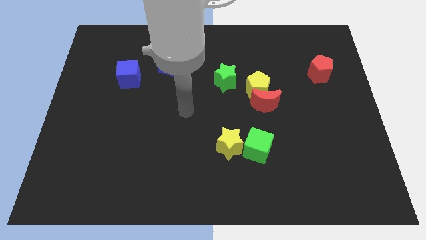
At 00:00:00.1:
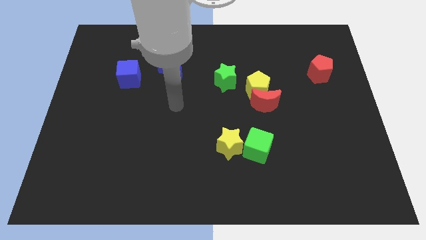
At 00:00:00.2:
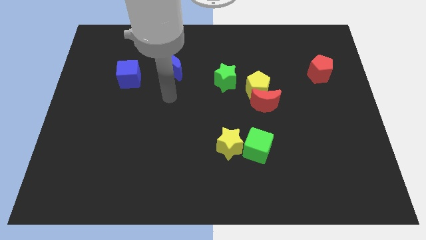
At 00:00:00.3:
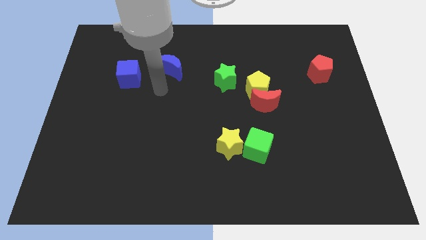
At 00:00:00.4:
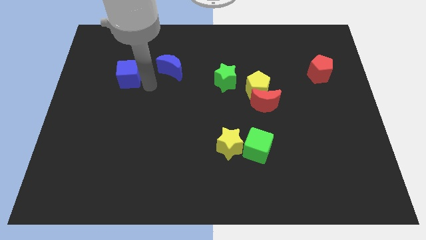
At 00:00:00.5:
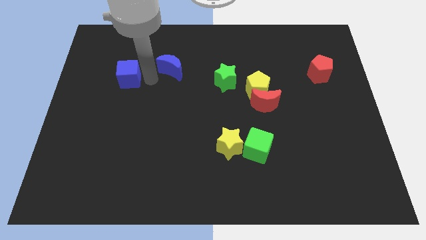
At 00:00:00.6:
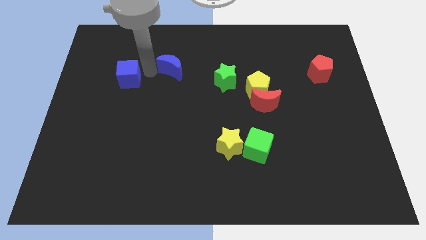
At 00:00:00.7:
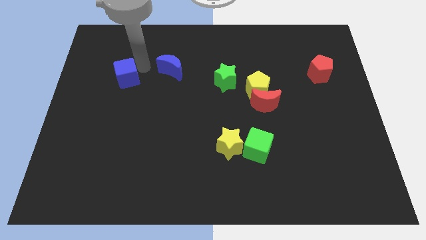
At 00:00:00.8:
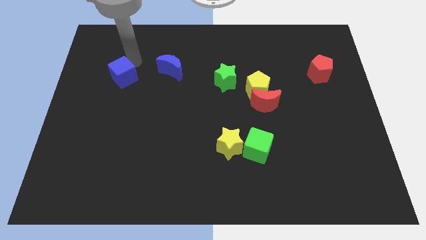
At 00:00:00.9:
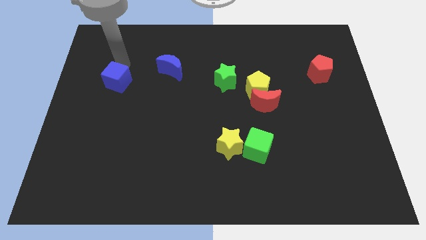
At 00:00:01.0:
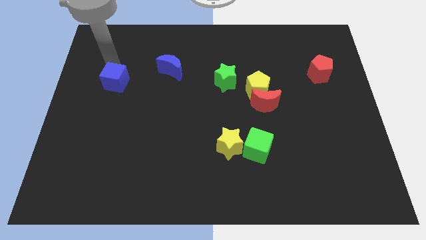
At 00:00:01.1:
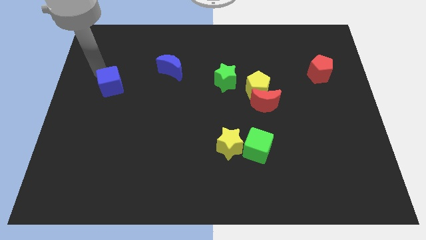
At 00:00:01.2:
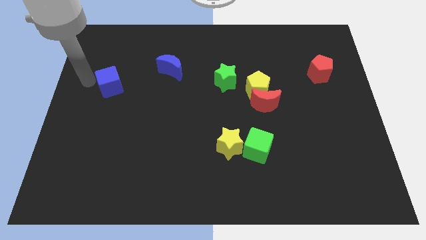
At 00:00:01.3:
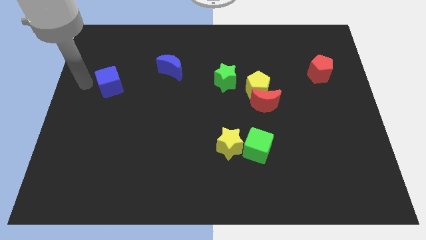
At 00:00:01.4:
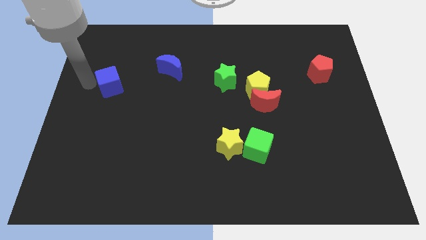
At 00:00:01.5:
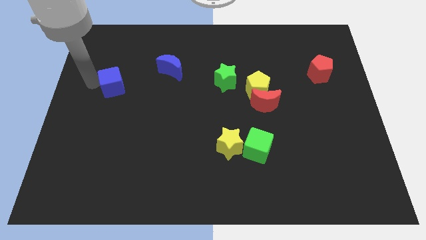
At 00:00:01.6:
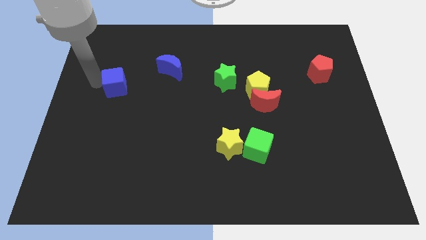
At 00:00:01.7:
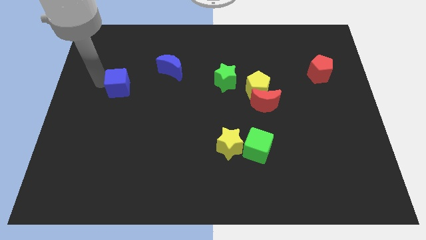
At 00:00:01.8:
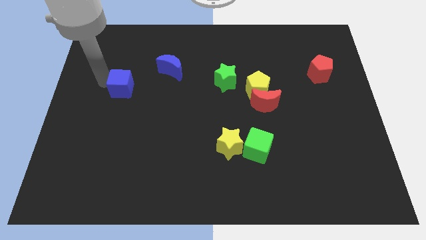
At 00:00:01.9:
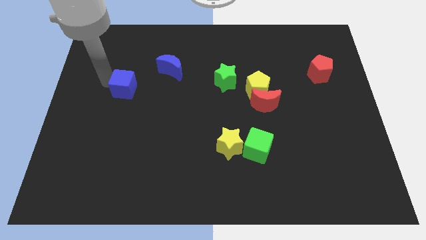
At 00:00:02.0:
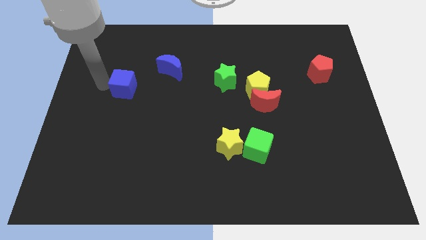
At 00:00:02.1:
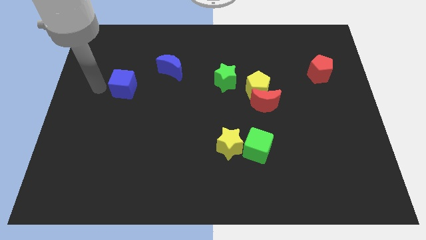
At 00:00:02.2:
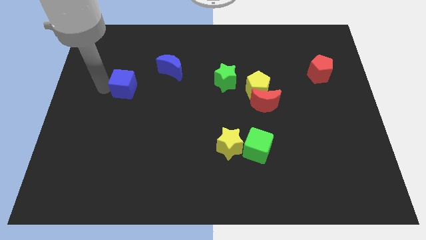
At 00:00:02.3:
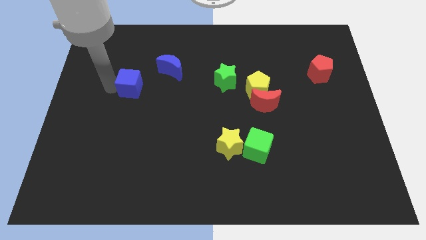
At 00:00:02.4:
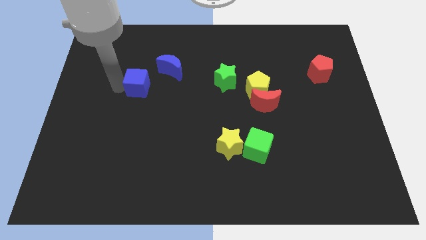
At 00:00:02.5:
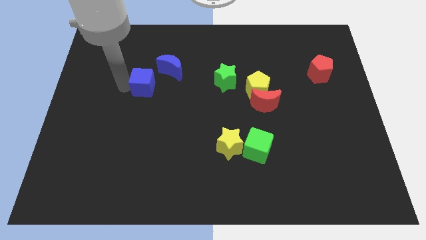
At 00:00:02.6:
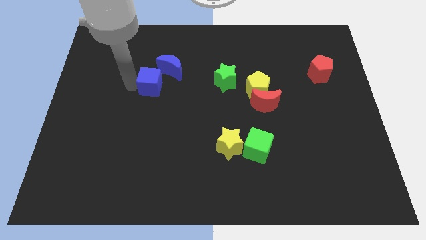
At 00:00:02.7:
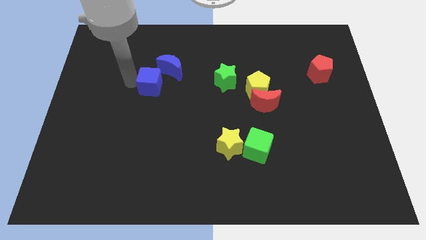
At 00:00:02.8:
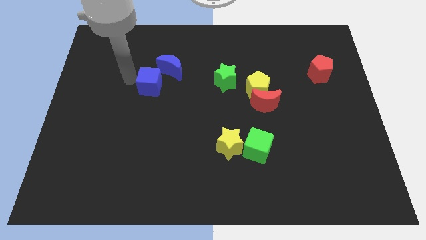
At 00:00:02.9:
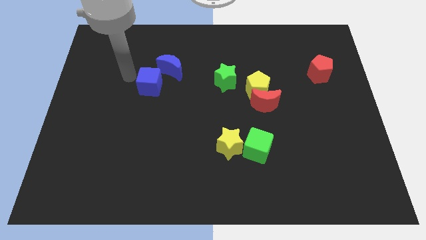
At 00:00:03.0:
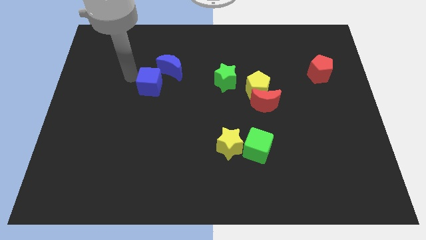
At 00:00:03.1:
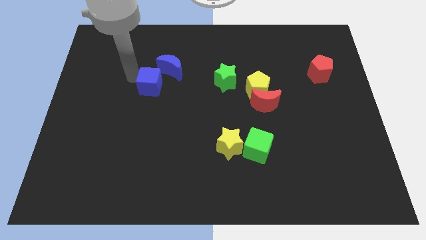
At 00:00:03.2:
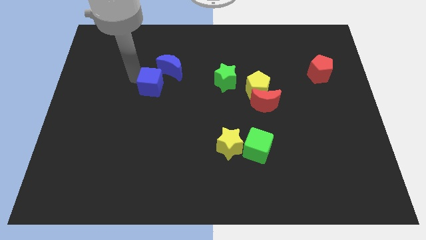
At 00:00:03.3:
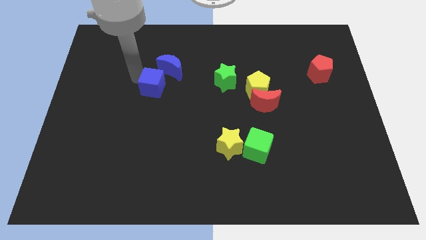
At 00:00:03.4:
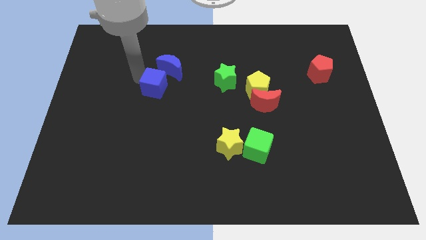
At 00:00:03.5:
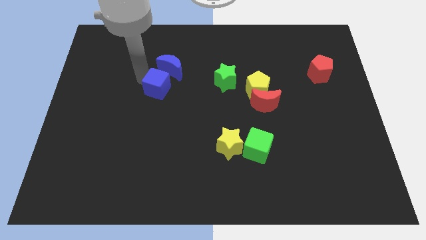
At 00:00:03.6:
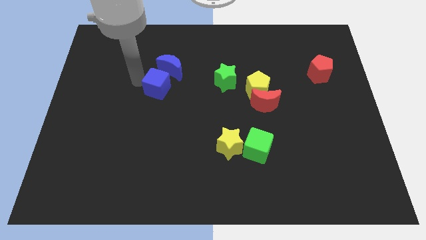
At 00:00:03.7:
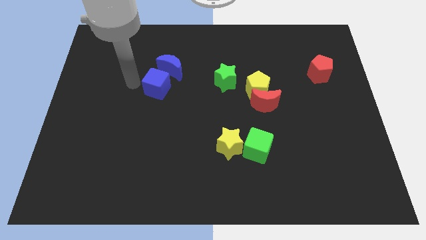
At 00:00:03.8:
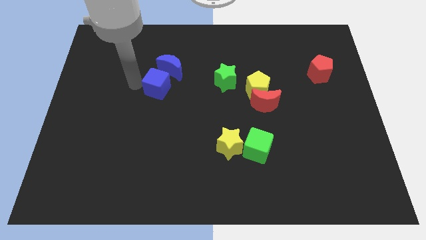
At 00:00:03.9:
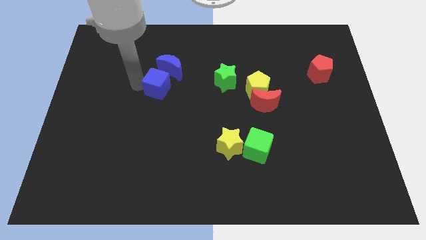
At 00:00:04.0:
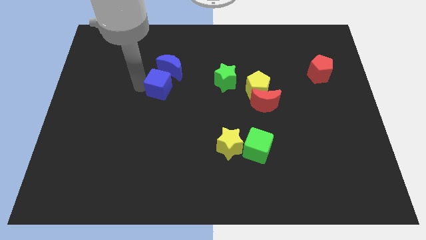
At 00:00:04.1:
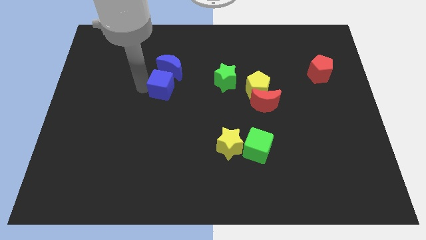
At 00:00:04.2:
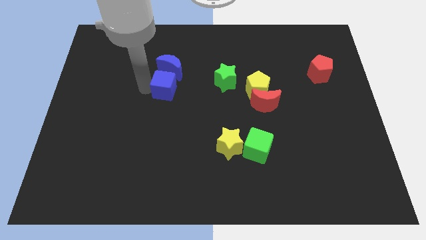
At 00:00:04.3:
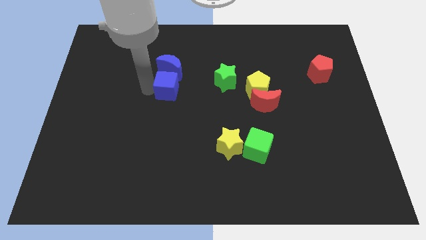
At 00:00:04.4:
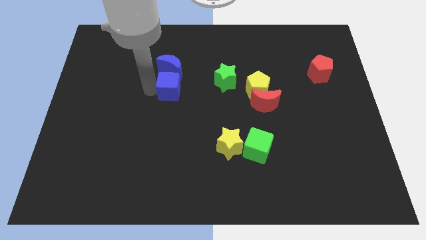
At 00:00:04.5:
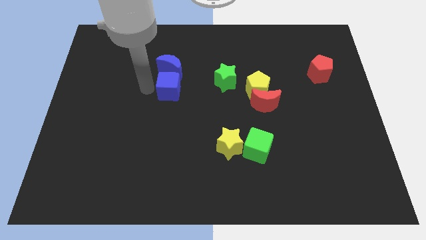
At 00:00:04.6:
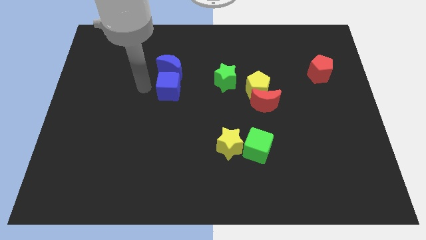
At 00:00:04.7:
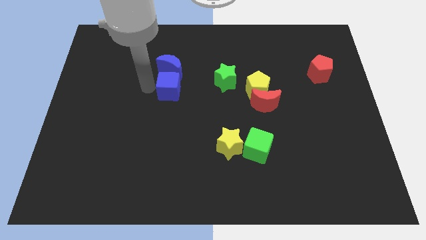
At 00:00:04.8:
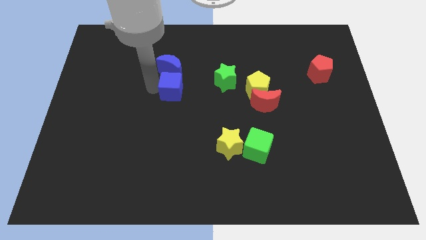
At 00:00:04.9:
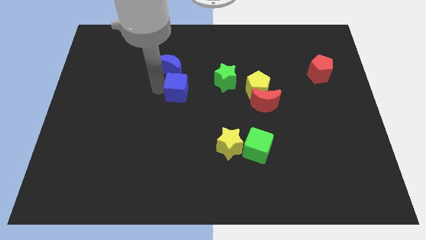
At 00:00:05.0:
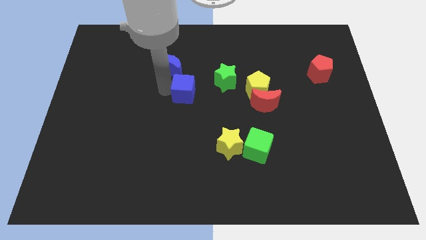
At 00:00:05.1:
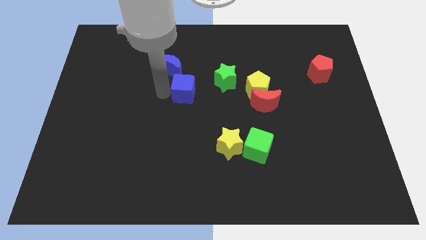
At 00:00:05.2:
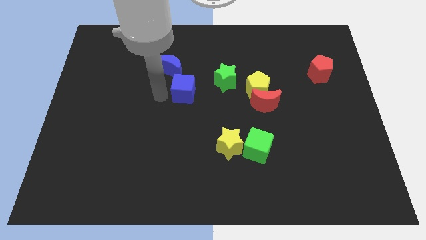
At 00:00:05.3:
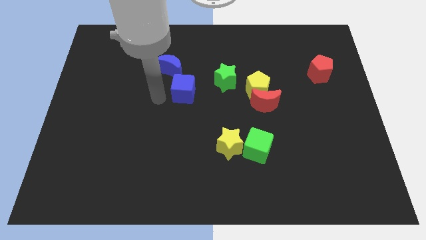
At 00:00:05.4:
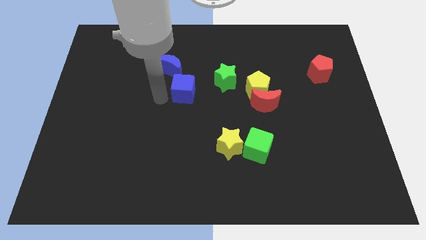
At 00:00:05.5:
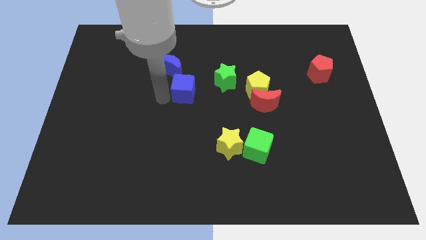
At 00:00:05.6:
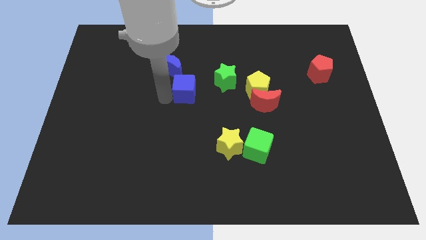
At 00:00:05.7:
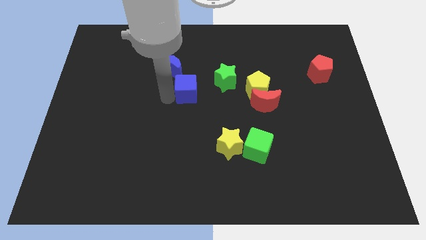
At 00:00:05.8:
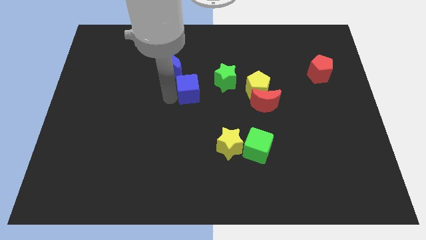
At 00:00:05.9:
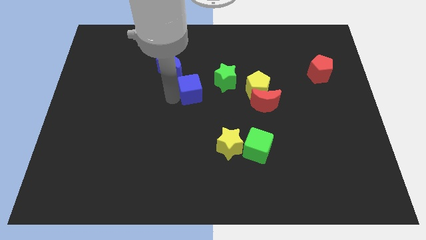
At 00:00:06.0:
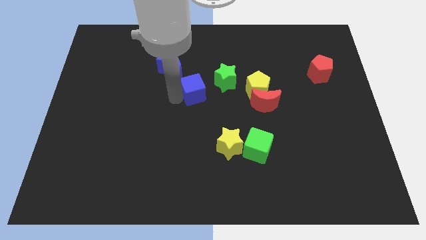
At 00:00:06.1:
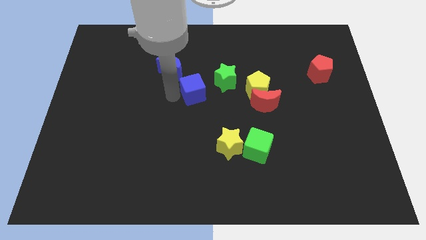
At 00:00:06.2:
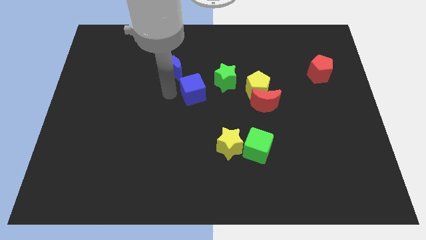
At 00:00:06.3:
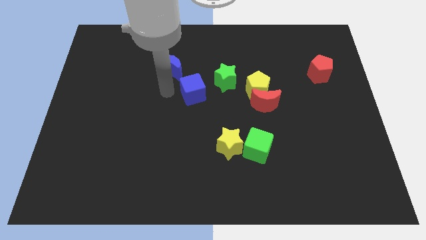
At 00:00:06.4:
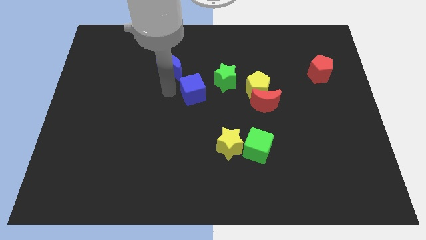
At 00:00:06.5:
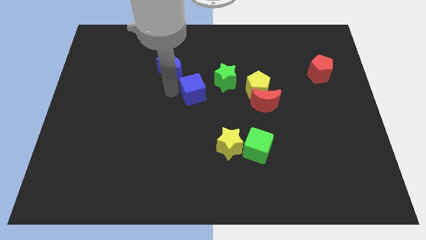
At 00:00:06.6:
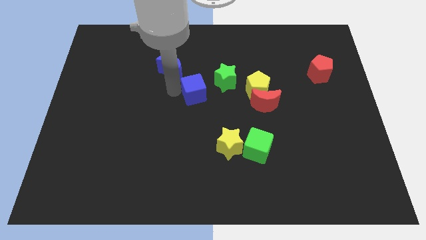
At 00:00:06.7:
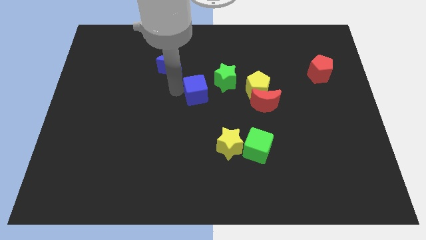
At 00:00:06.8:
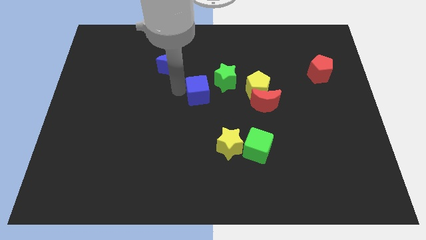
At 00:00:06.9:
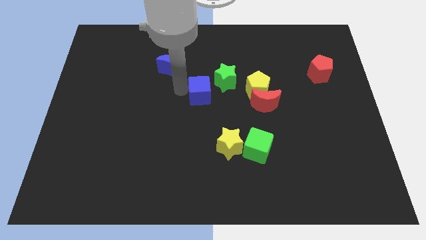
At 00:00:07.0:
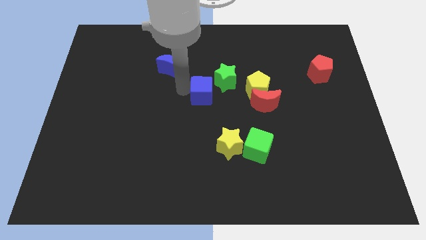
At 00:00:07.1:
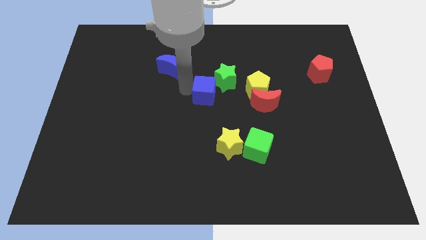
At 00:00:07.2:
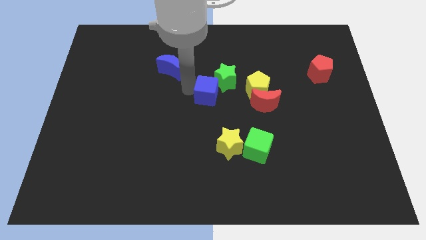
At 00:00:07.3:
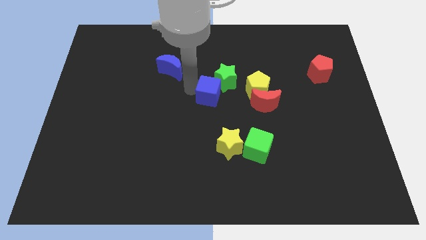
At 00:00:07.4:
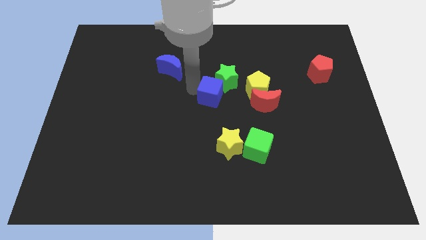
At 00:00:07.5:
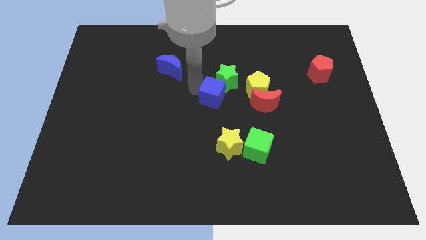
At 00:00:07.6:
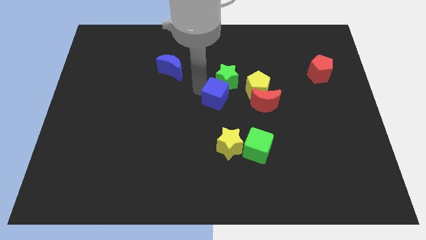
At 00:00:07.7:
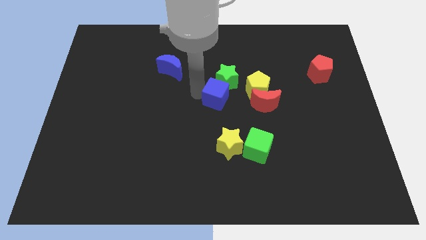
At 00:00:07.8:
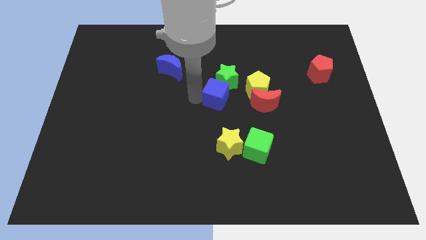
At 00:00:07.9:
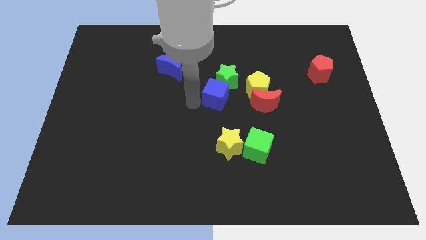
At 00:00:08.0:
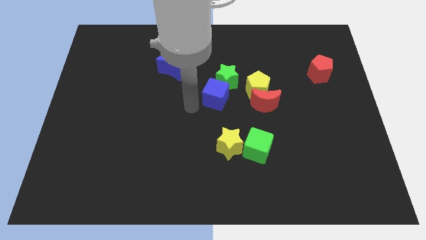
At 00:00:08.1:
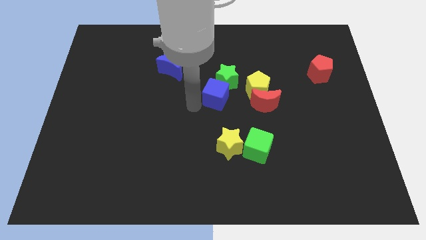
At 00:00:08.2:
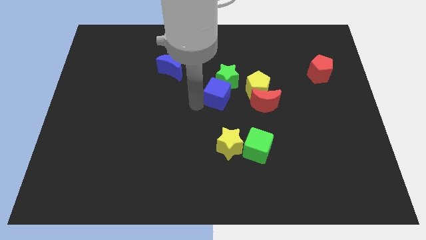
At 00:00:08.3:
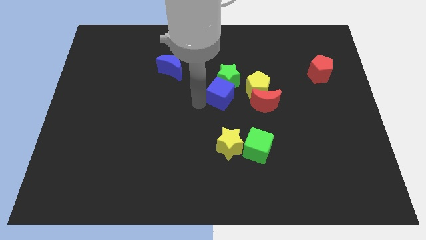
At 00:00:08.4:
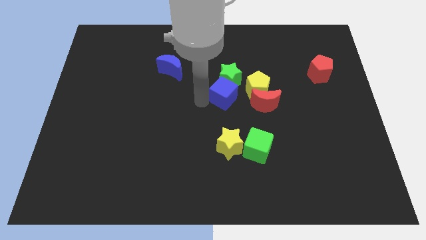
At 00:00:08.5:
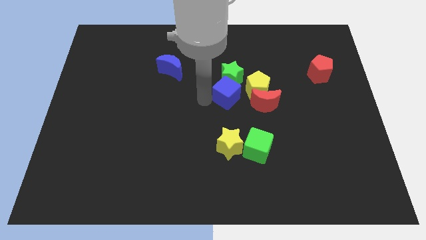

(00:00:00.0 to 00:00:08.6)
push the blue cube to the top left of the red moon
